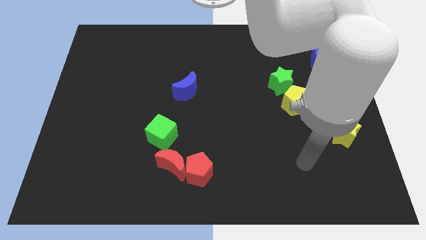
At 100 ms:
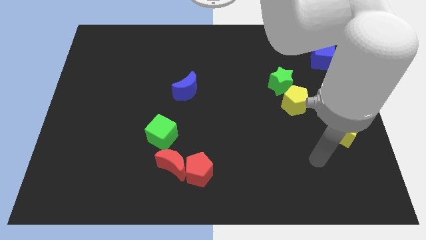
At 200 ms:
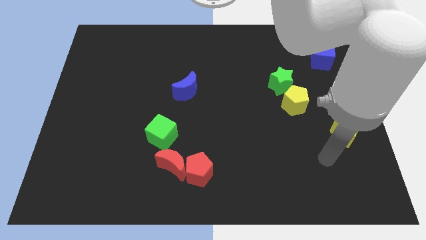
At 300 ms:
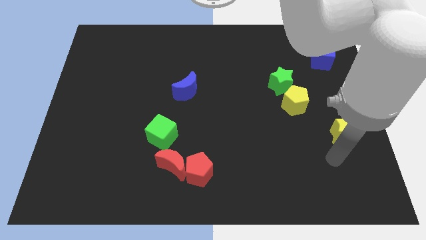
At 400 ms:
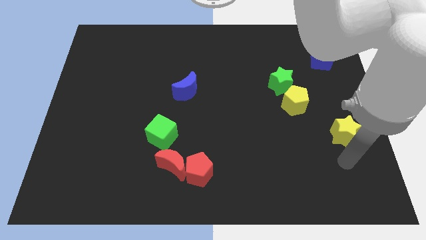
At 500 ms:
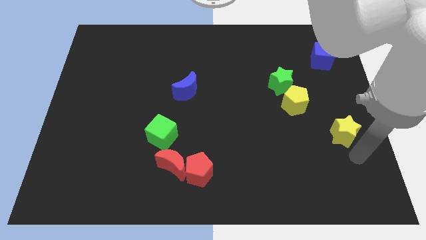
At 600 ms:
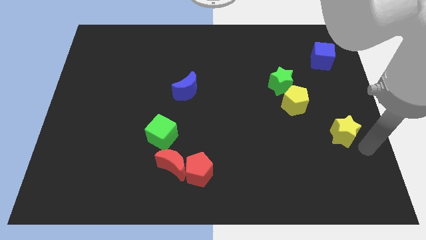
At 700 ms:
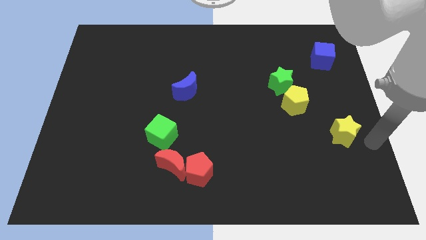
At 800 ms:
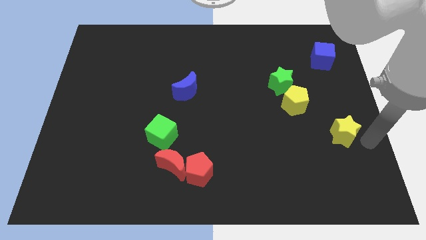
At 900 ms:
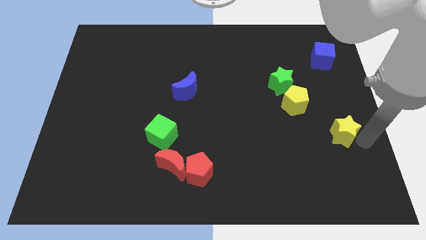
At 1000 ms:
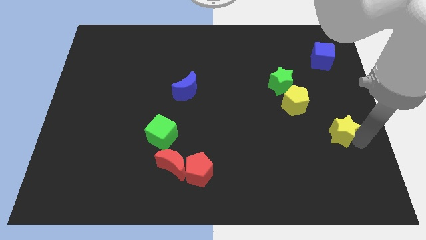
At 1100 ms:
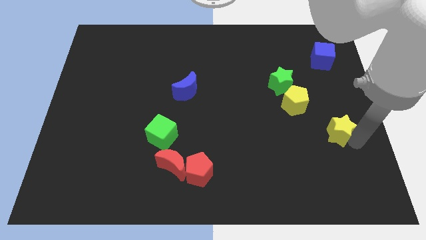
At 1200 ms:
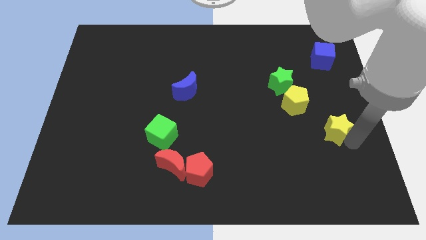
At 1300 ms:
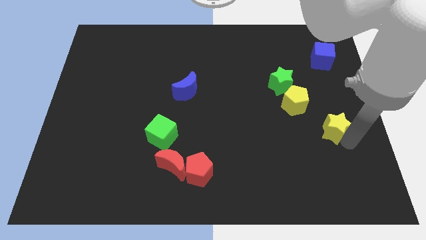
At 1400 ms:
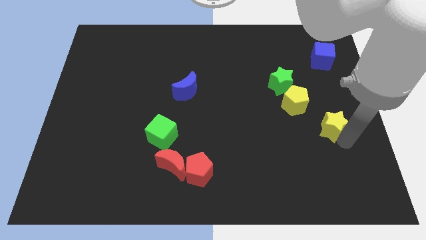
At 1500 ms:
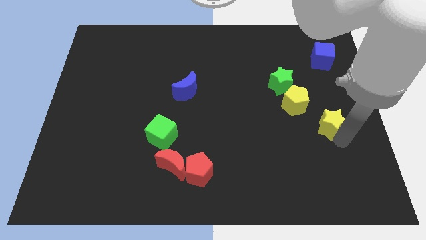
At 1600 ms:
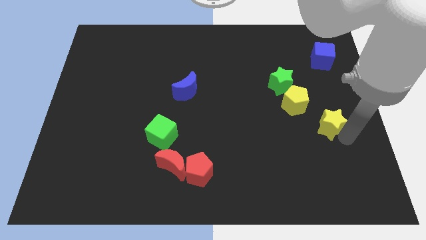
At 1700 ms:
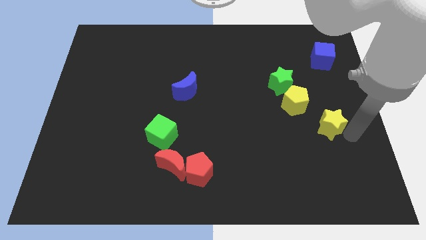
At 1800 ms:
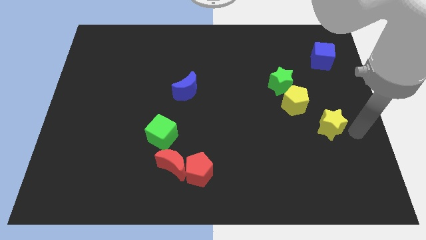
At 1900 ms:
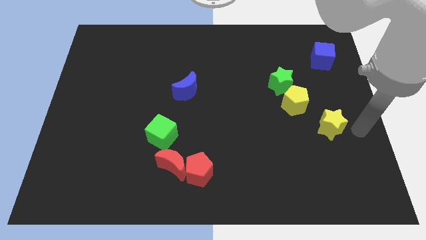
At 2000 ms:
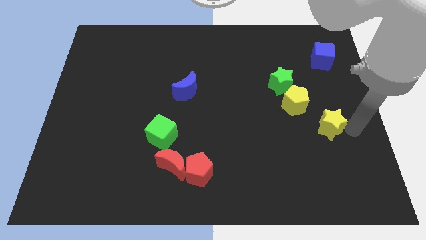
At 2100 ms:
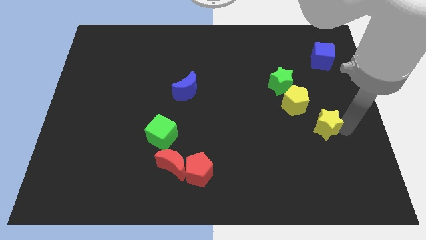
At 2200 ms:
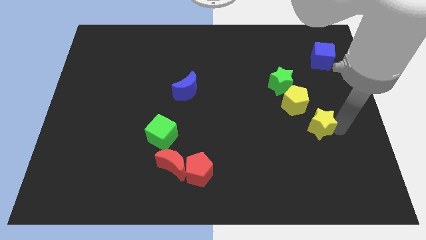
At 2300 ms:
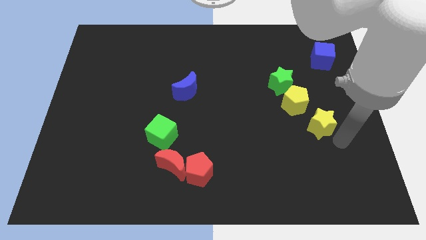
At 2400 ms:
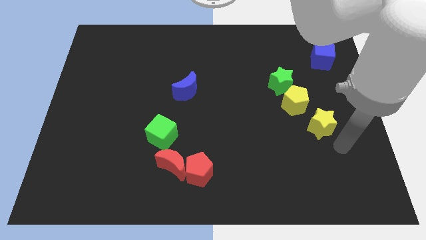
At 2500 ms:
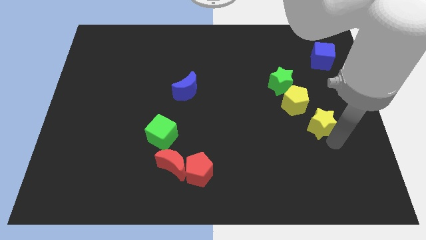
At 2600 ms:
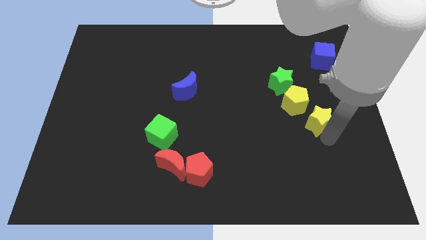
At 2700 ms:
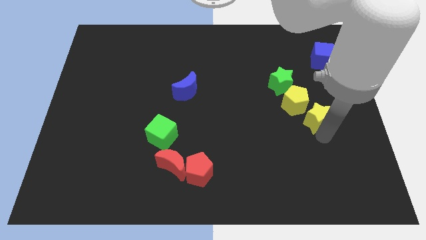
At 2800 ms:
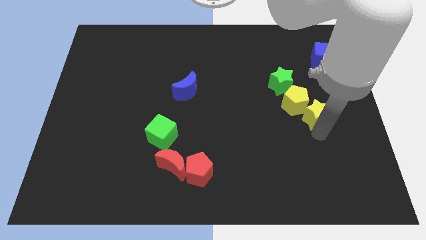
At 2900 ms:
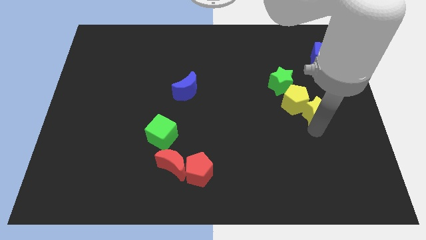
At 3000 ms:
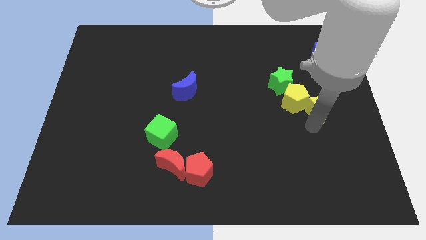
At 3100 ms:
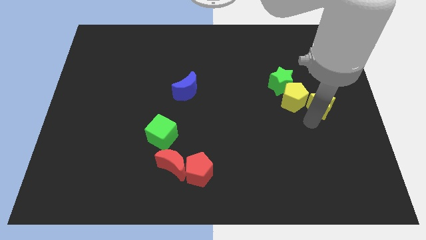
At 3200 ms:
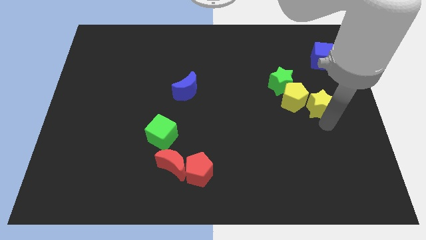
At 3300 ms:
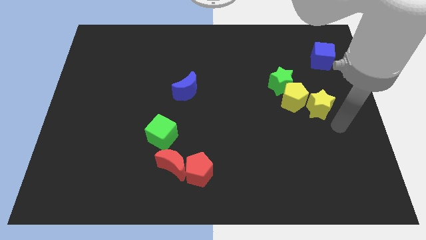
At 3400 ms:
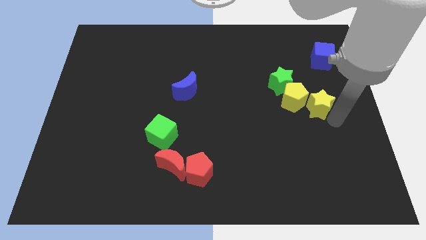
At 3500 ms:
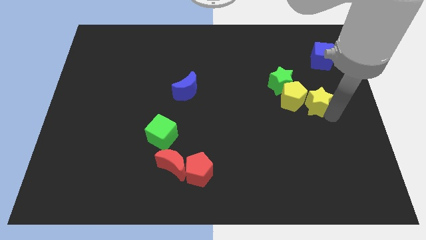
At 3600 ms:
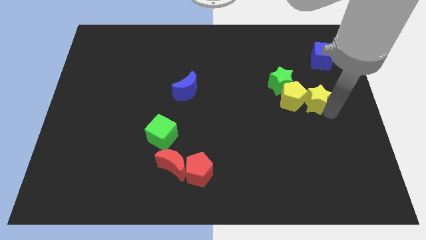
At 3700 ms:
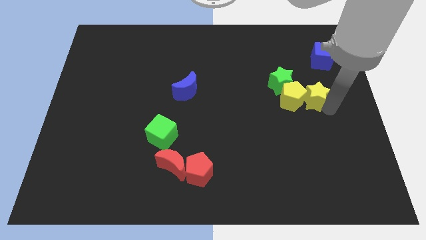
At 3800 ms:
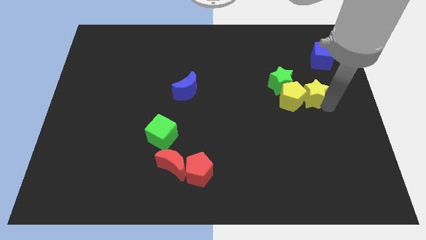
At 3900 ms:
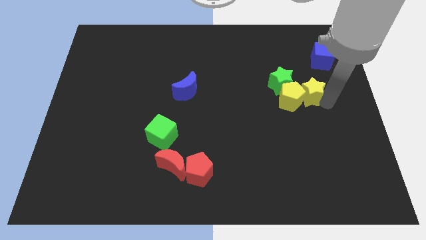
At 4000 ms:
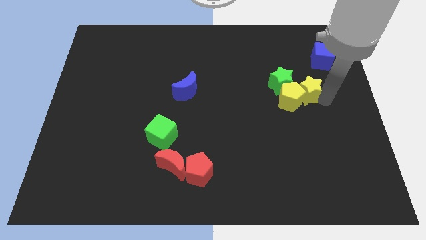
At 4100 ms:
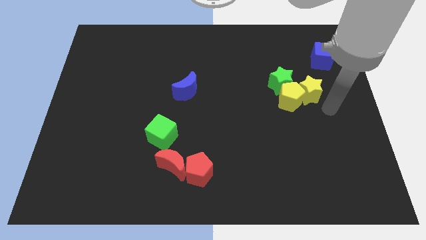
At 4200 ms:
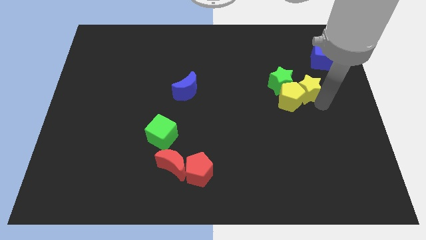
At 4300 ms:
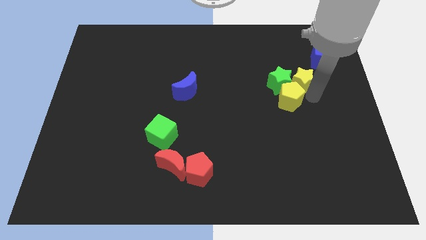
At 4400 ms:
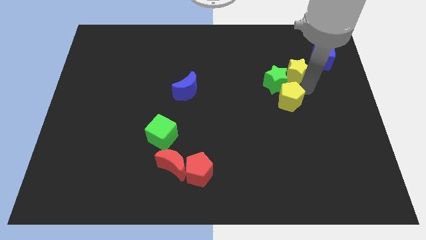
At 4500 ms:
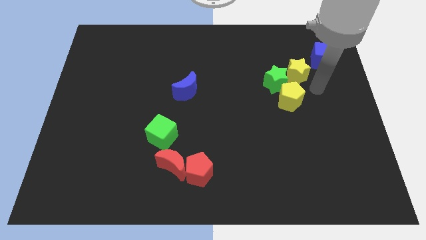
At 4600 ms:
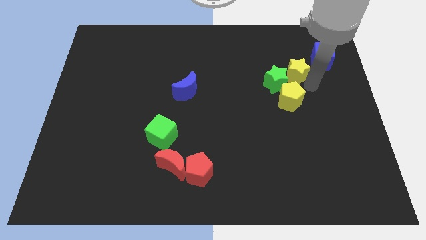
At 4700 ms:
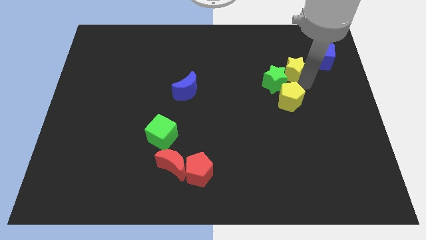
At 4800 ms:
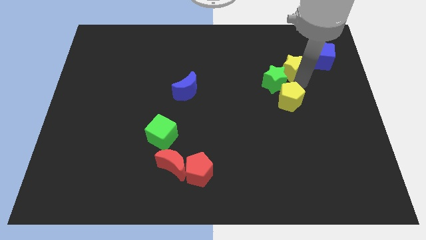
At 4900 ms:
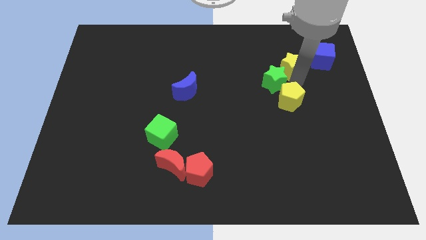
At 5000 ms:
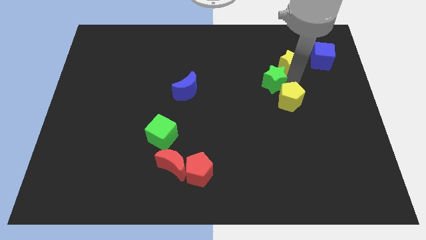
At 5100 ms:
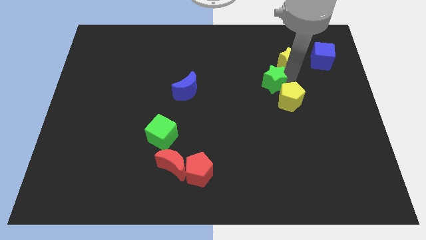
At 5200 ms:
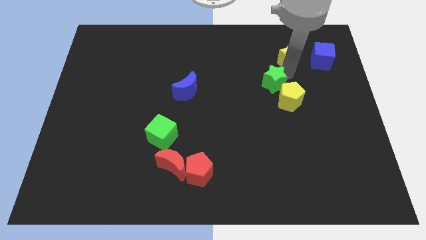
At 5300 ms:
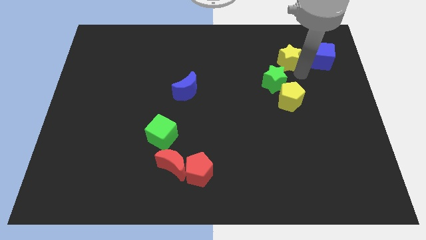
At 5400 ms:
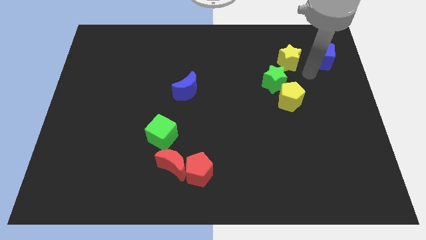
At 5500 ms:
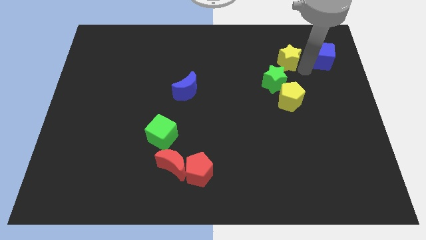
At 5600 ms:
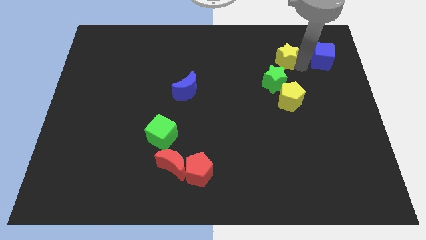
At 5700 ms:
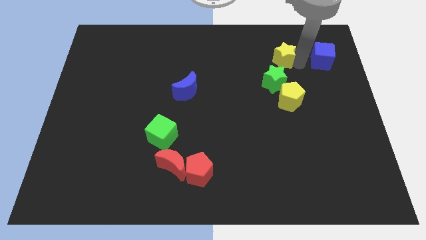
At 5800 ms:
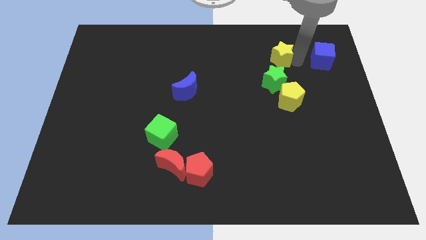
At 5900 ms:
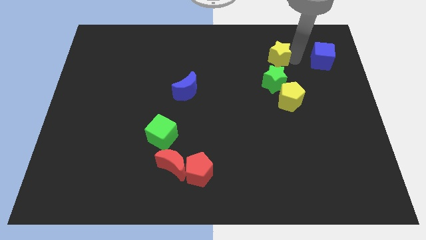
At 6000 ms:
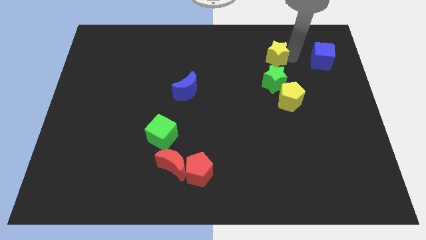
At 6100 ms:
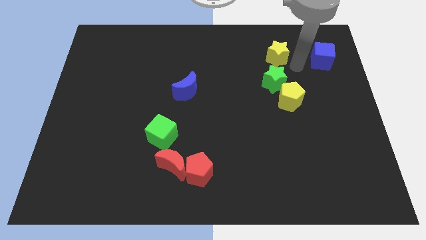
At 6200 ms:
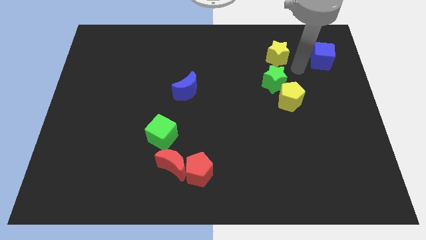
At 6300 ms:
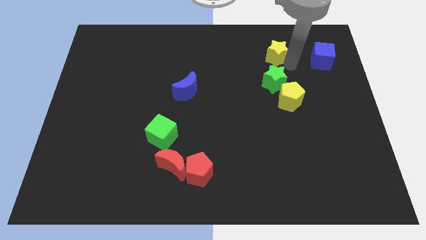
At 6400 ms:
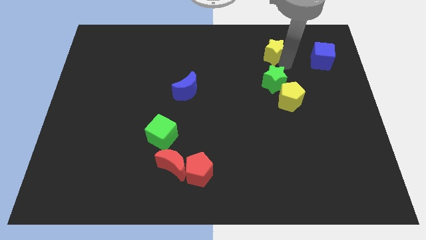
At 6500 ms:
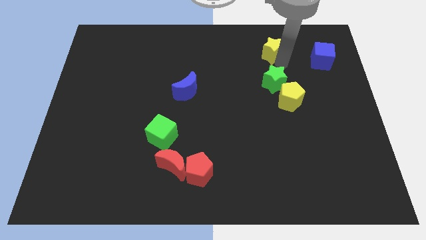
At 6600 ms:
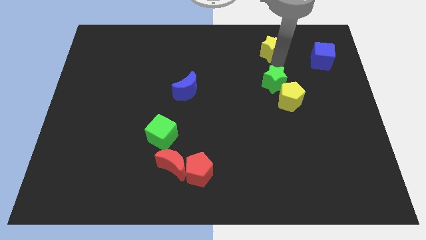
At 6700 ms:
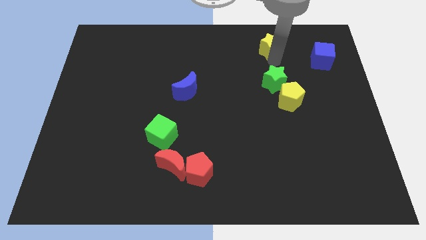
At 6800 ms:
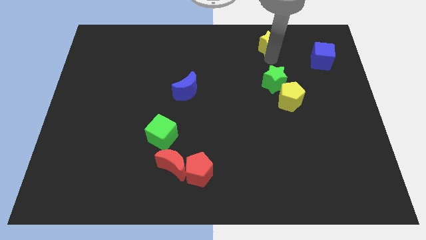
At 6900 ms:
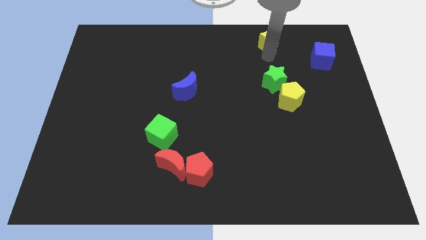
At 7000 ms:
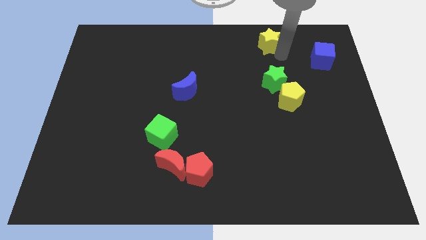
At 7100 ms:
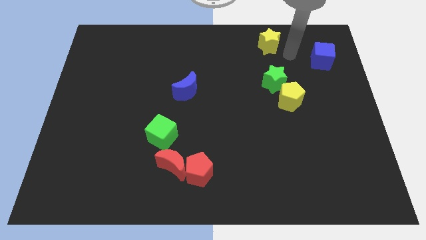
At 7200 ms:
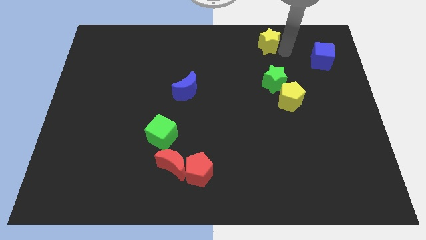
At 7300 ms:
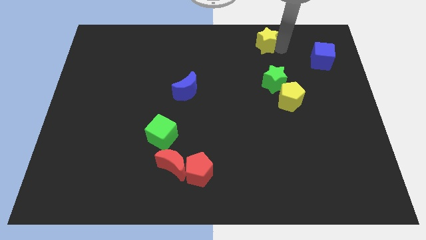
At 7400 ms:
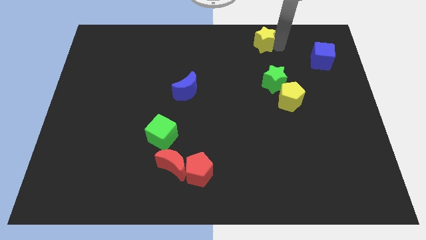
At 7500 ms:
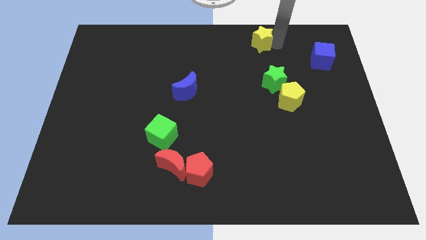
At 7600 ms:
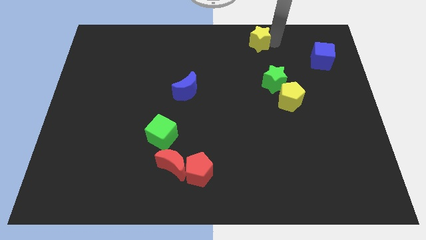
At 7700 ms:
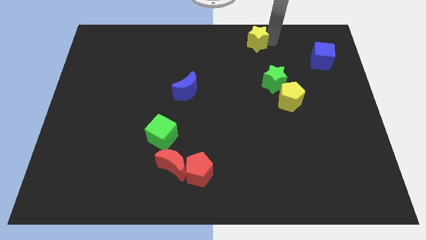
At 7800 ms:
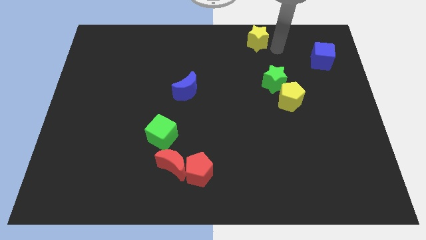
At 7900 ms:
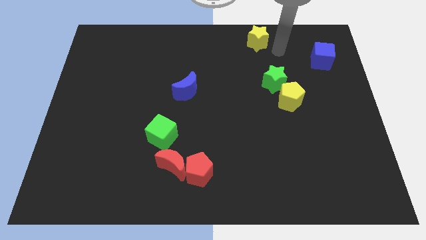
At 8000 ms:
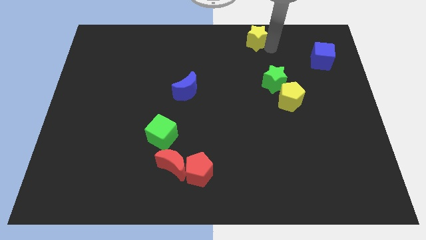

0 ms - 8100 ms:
move the yellow star to the towards your base
